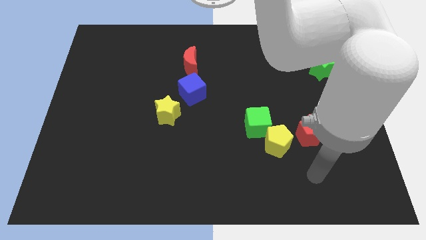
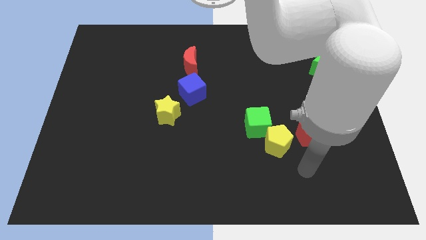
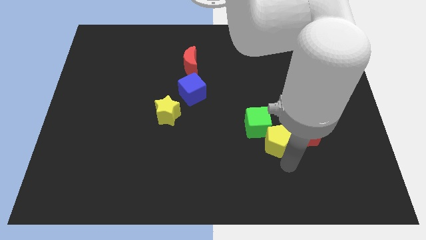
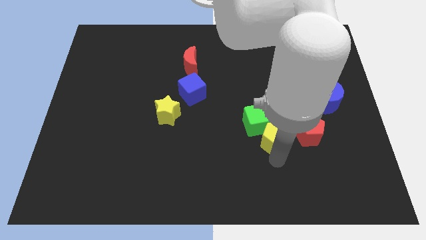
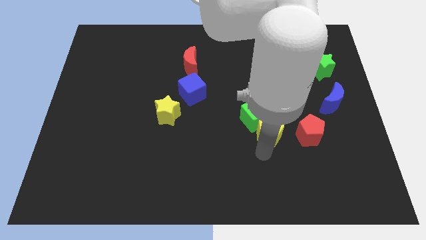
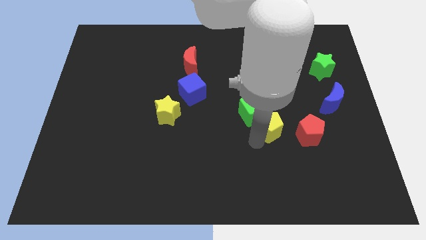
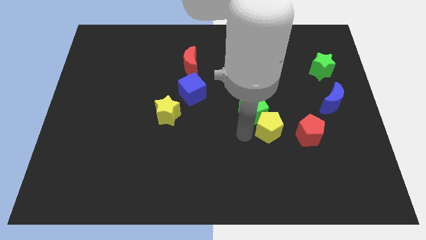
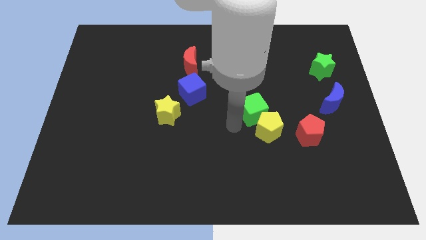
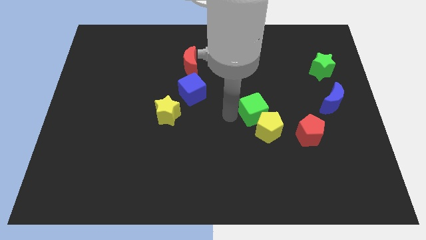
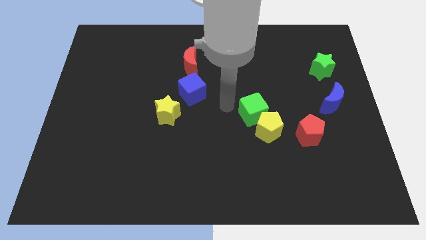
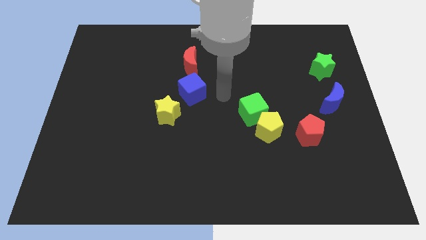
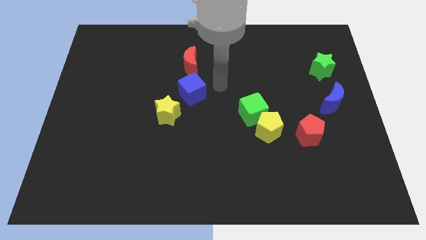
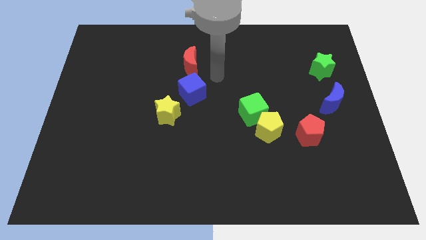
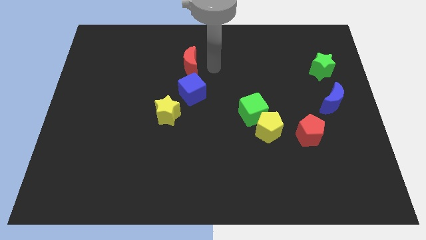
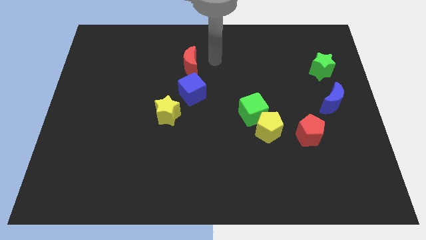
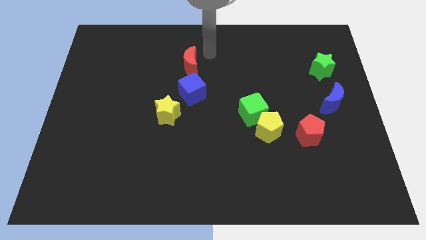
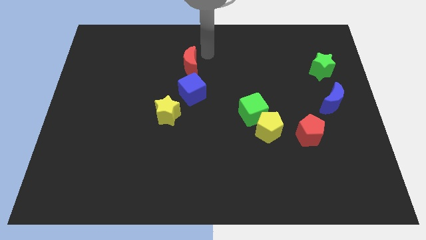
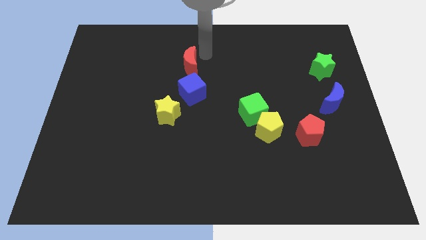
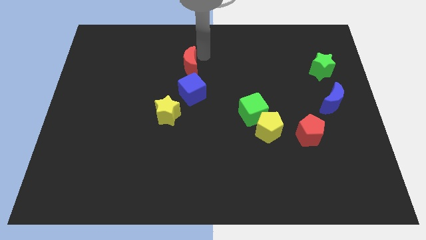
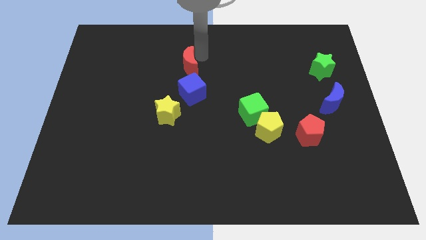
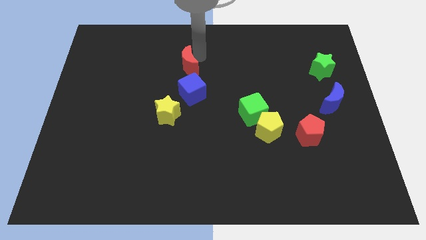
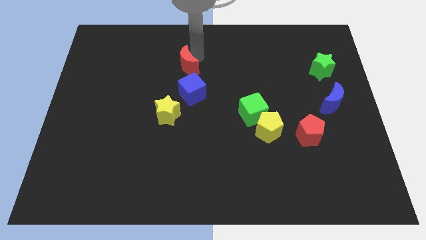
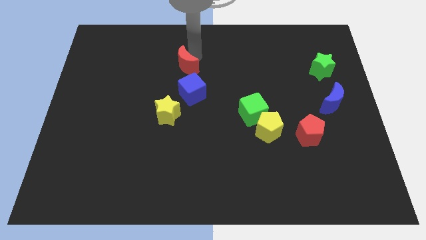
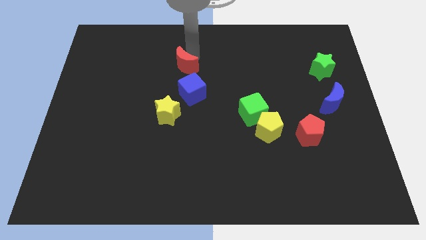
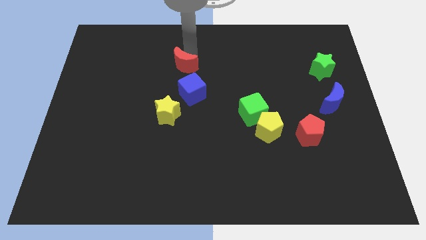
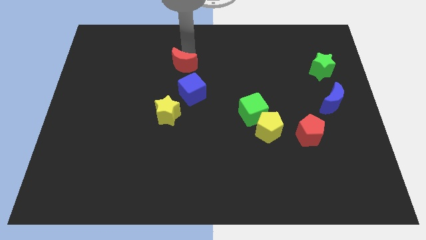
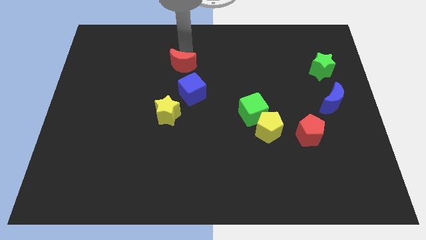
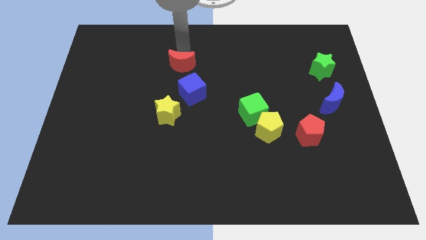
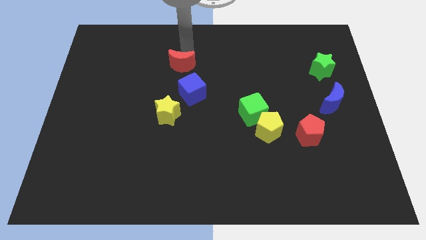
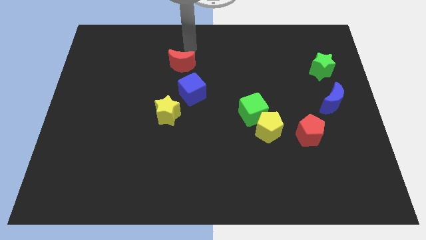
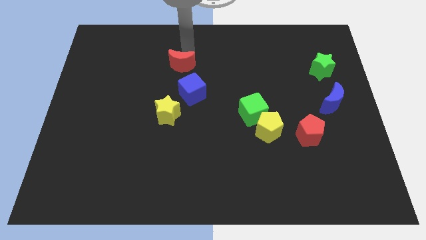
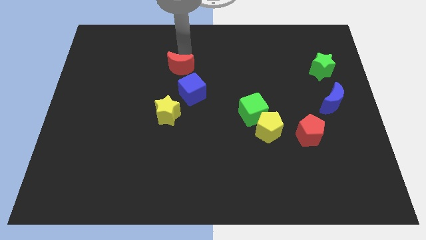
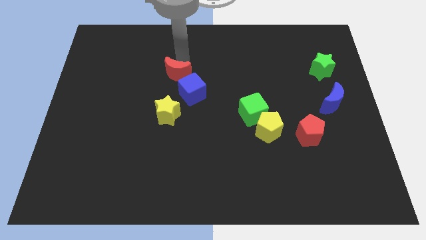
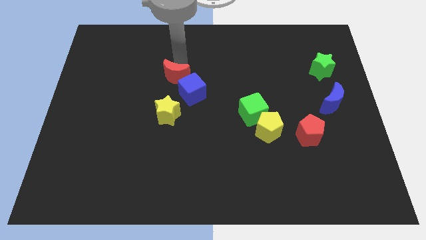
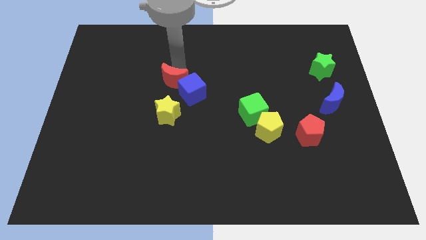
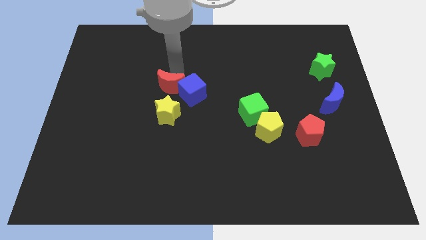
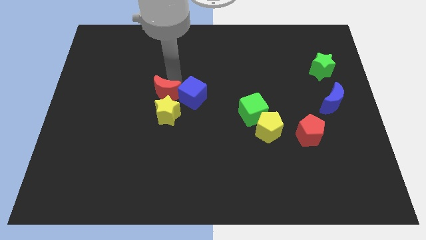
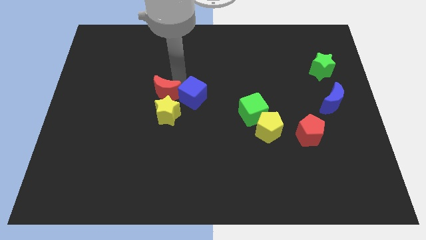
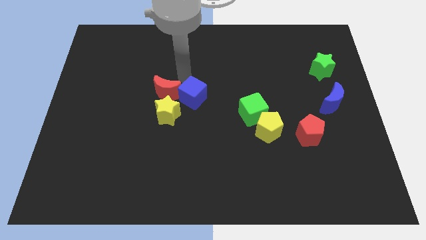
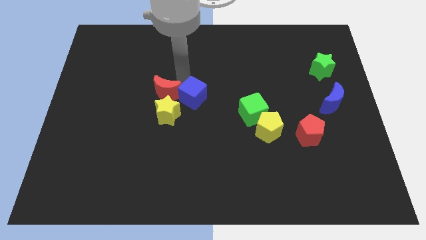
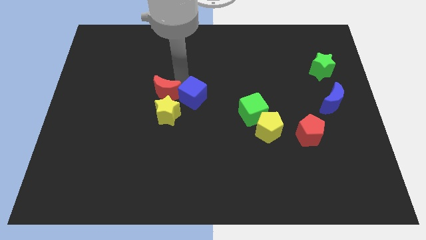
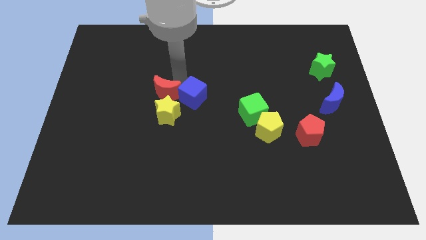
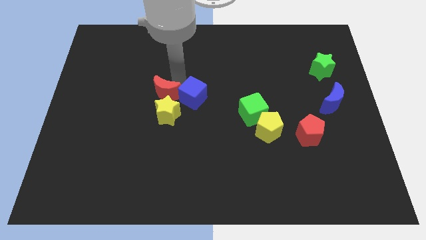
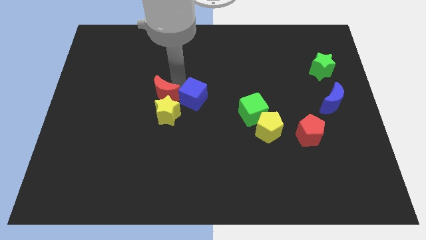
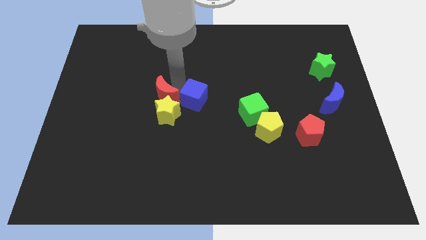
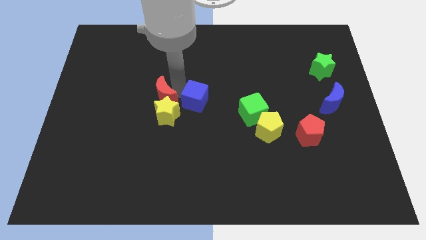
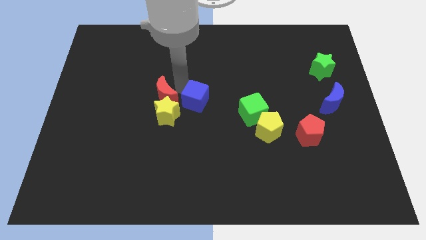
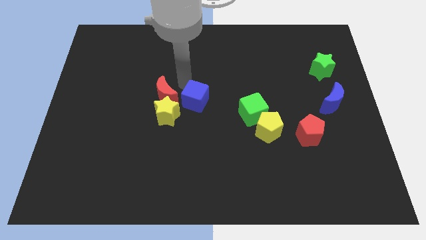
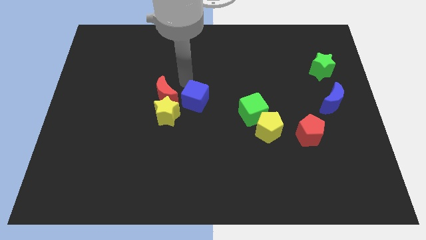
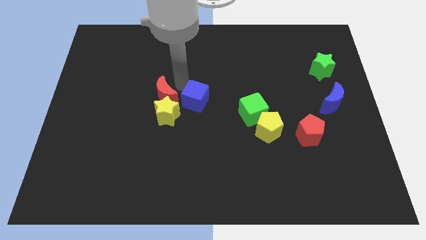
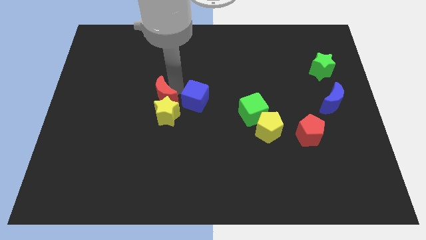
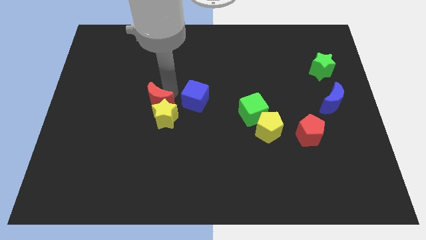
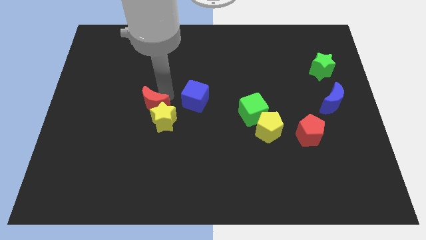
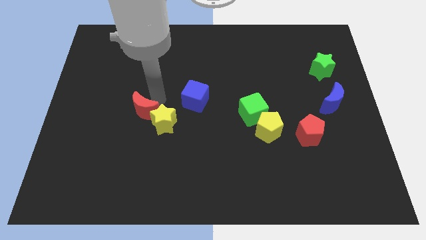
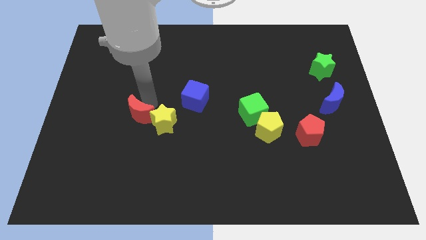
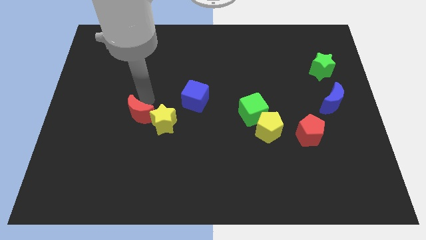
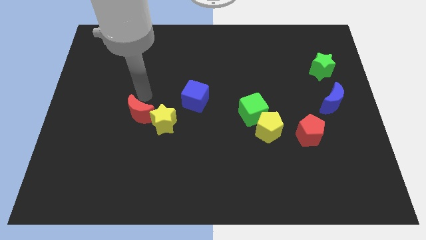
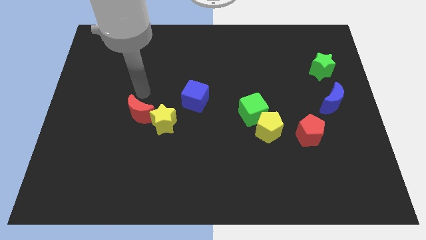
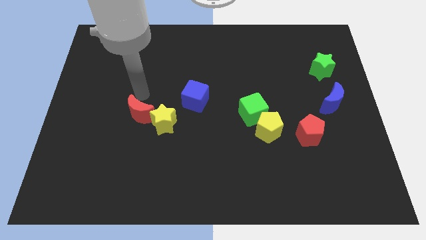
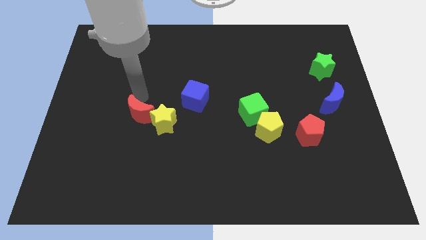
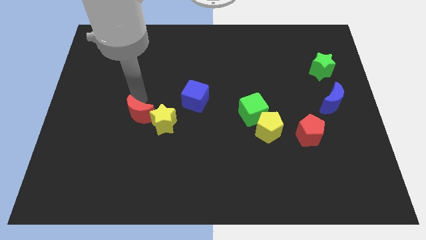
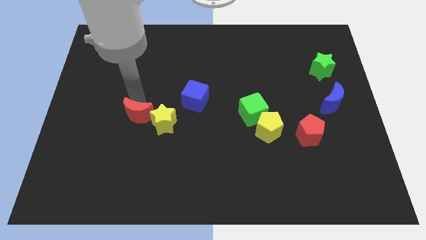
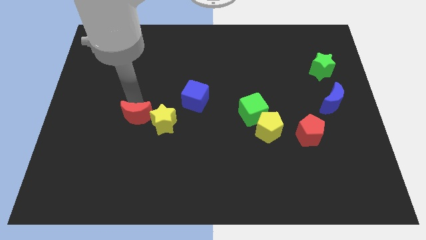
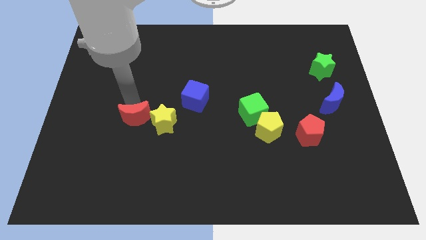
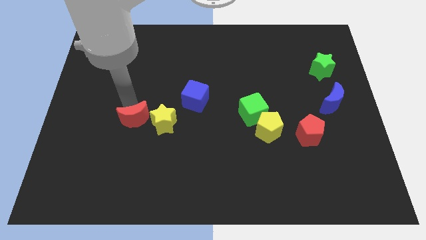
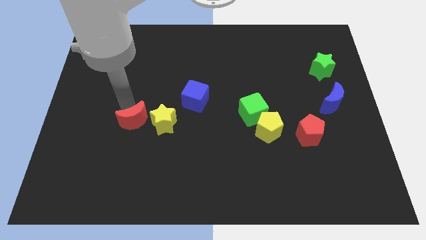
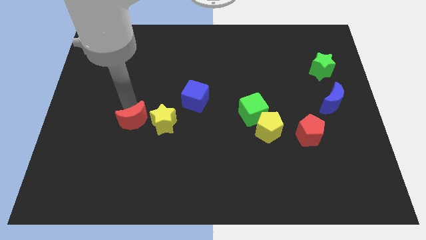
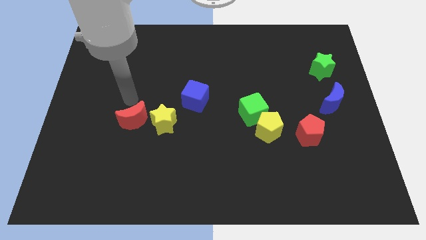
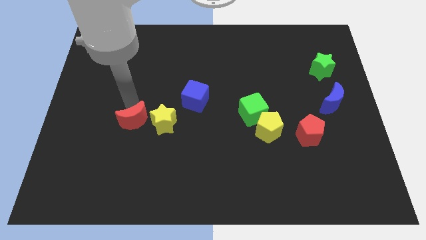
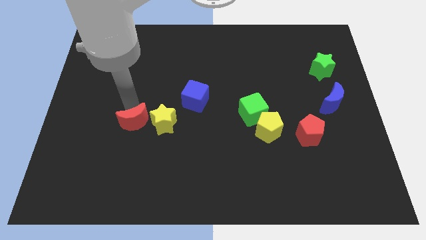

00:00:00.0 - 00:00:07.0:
move the red moon to the bottom left side of the yellow star

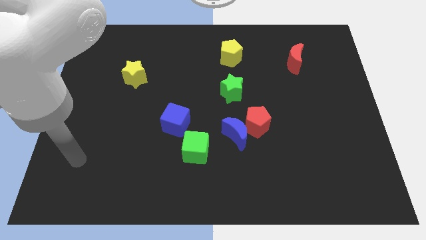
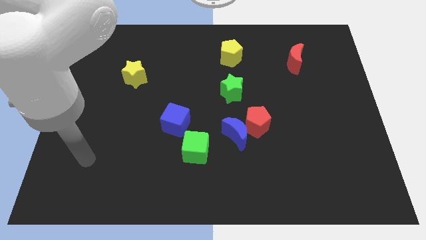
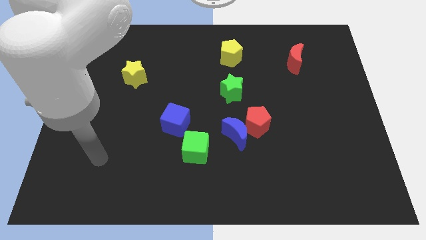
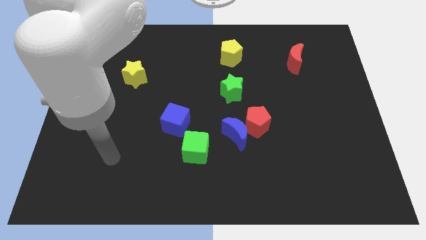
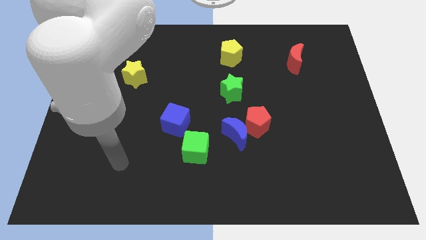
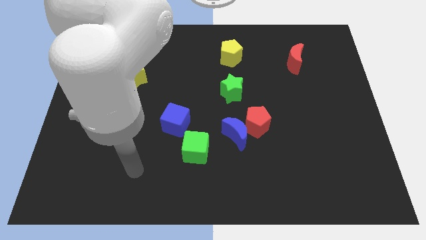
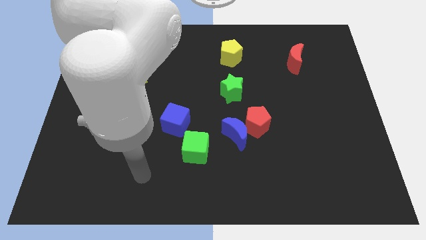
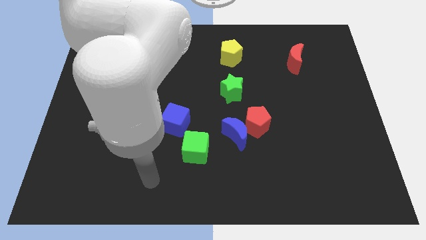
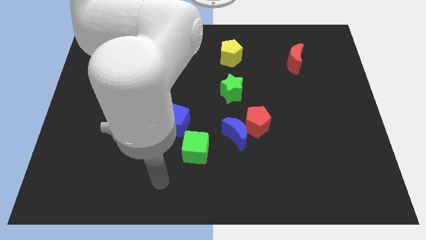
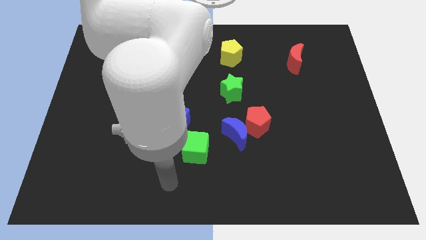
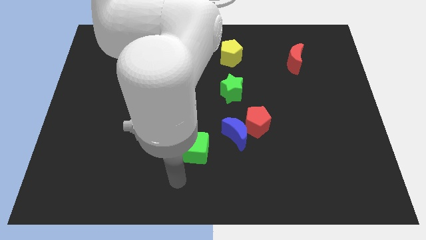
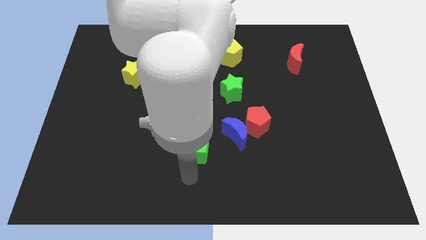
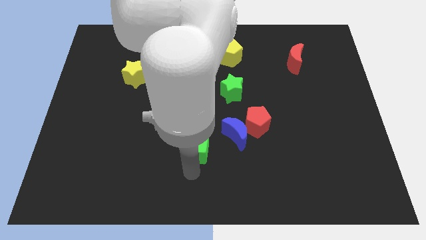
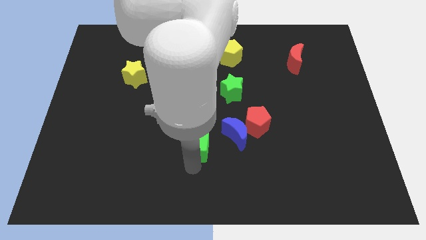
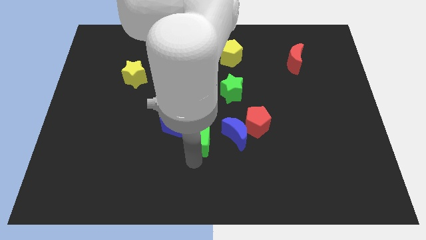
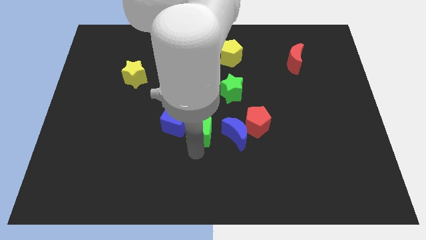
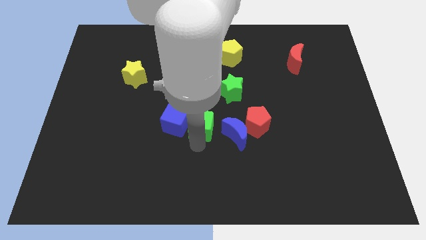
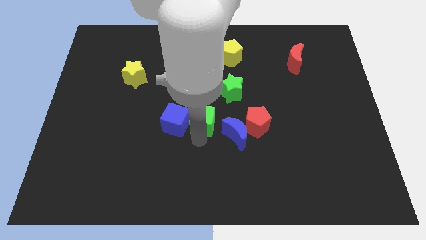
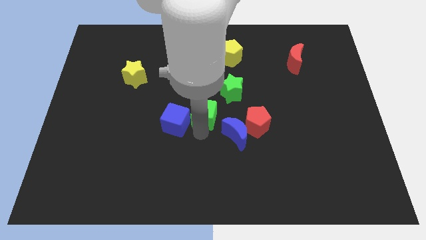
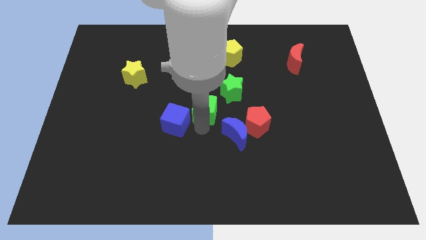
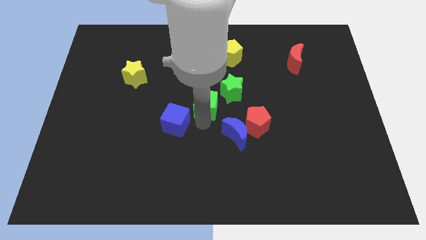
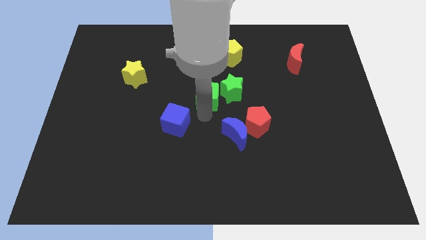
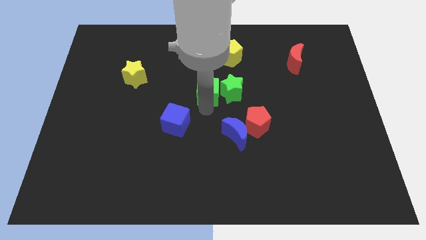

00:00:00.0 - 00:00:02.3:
push the green cube diagonally up and to the left of the green star
